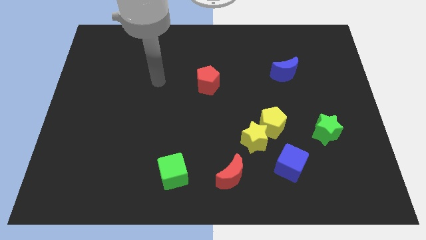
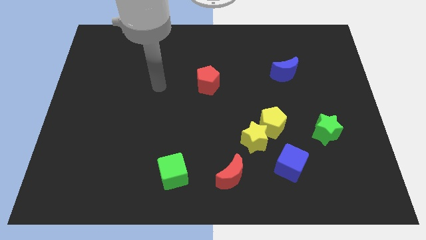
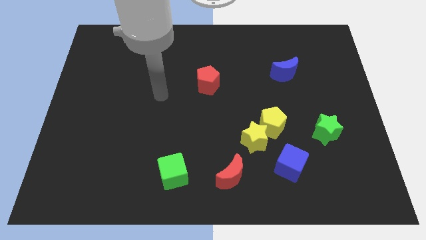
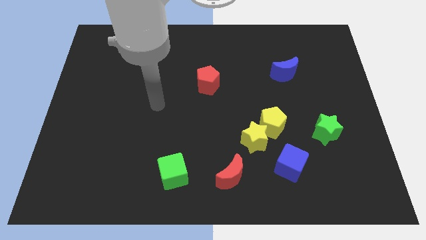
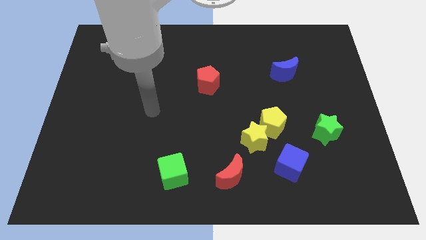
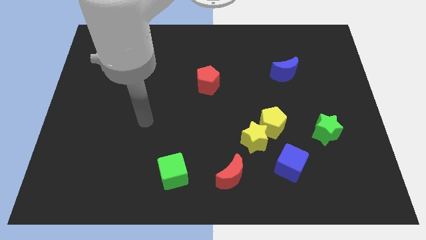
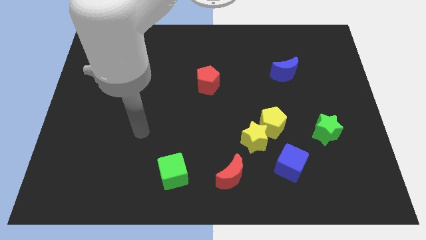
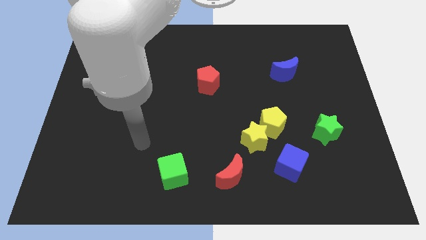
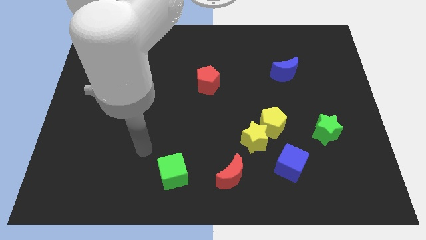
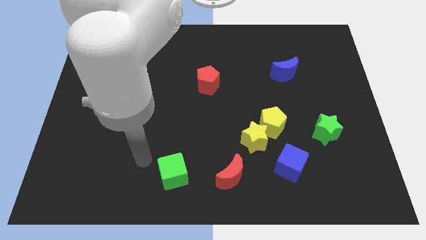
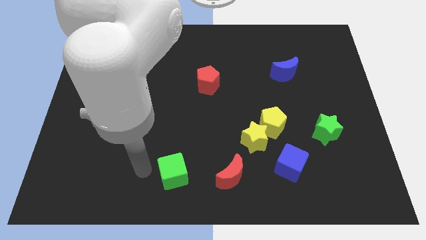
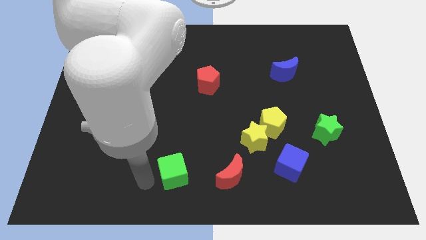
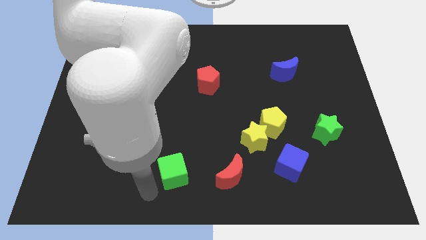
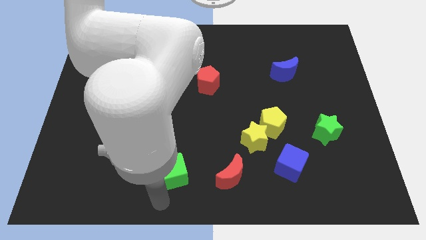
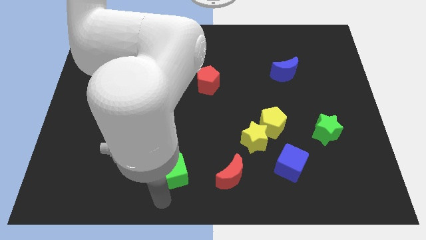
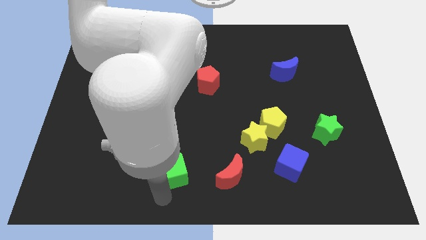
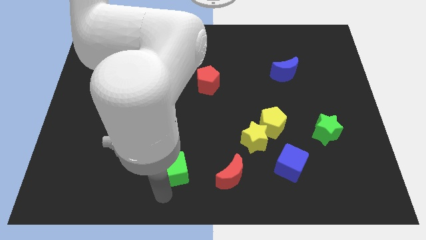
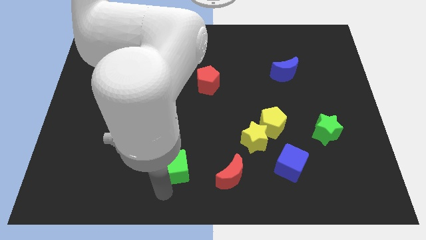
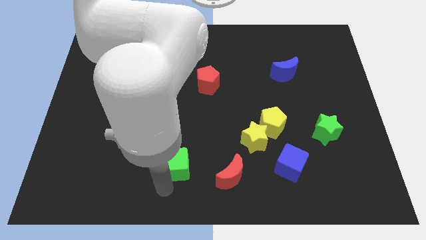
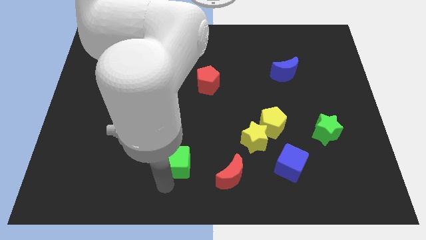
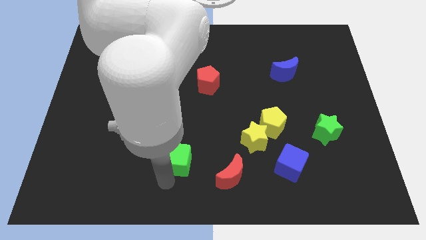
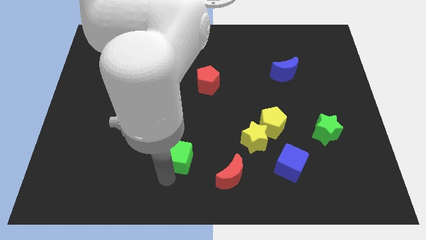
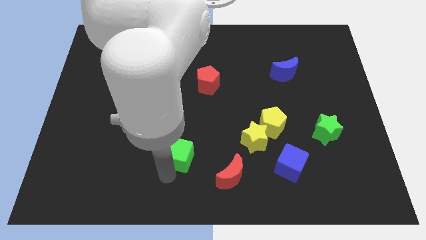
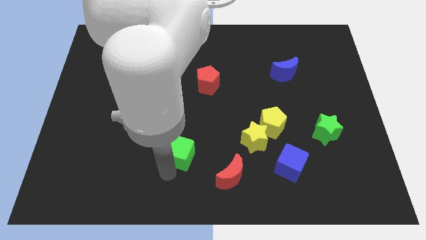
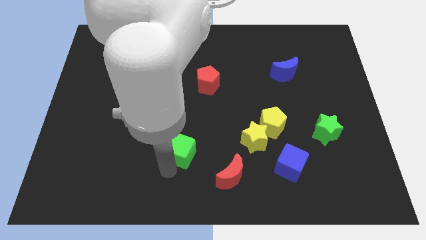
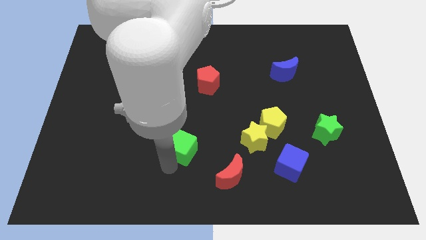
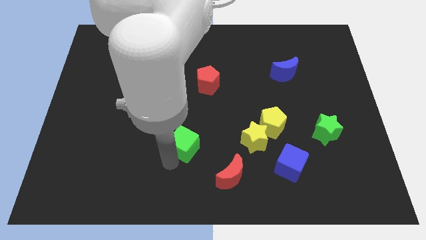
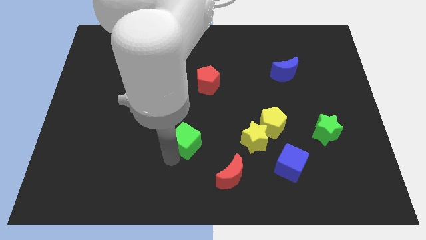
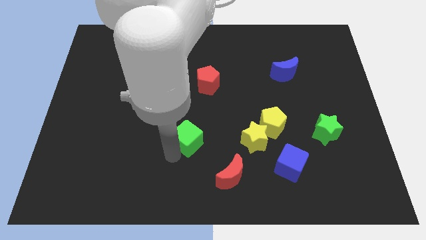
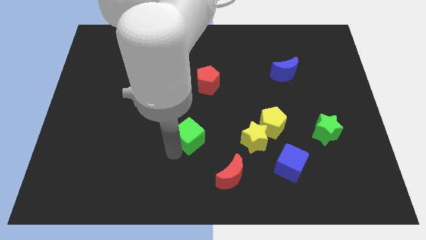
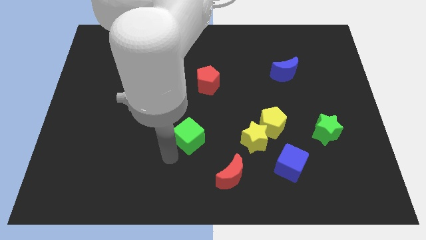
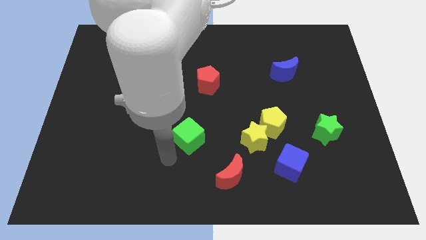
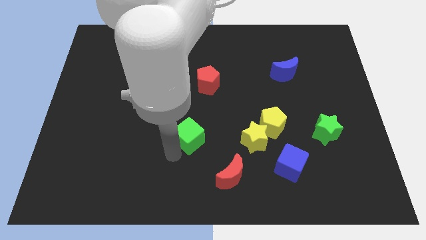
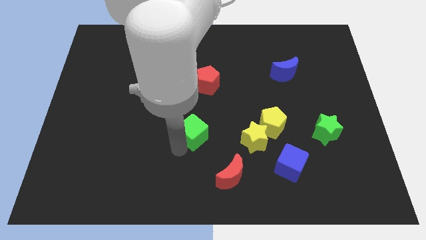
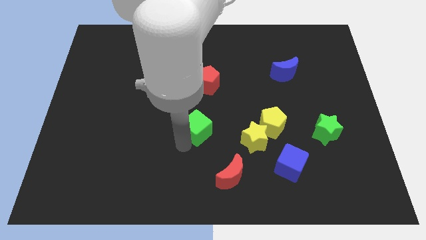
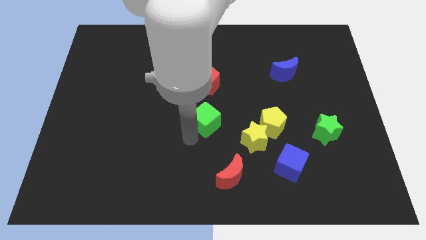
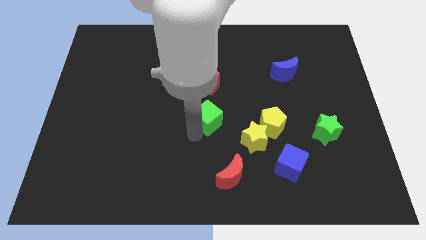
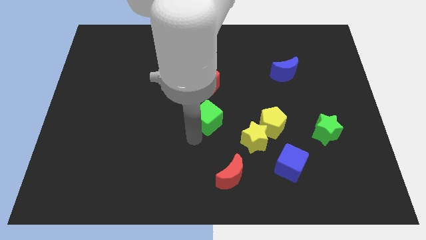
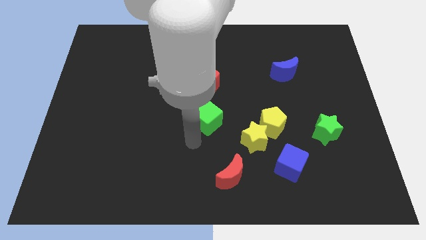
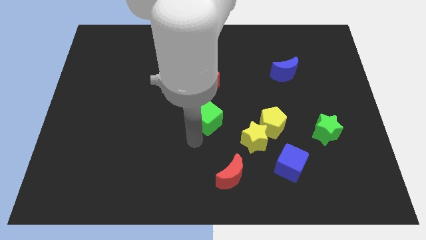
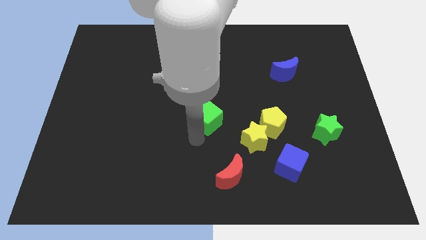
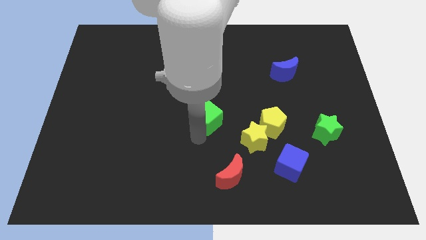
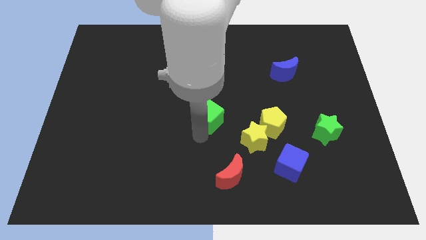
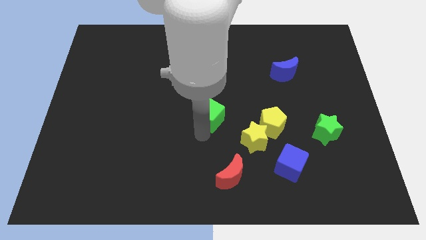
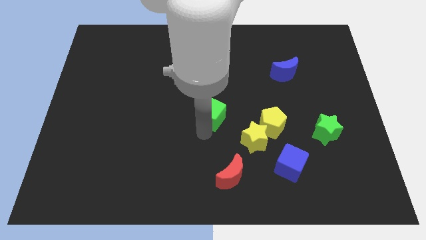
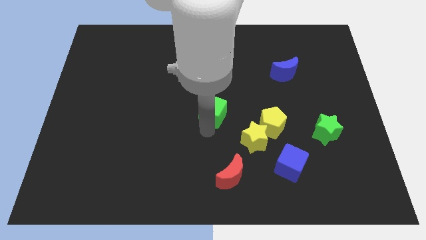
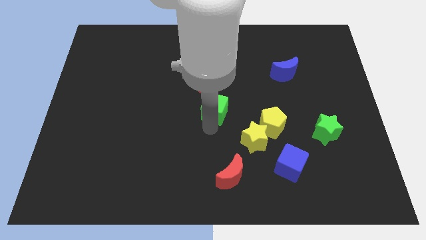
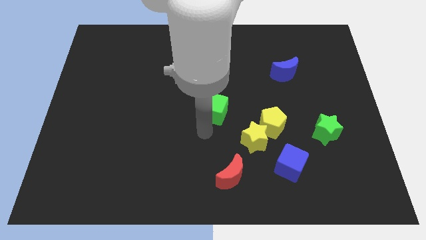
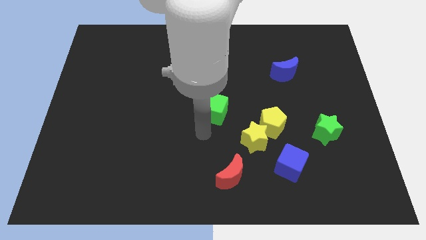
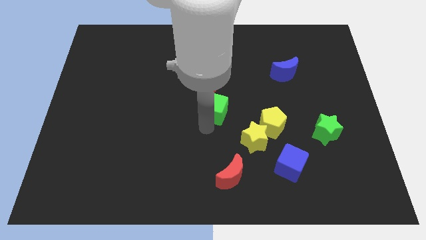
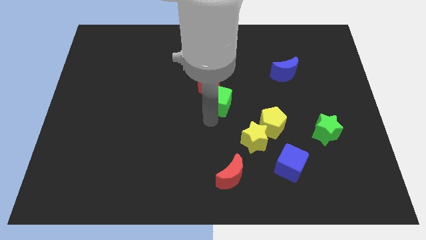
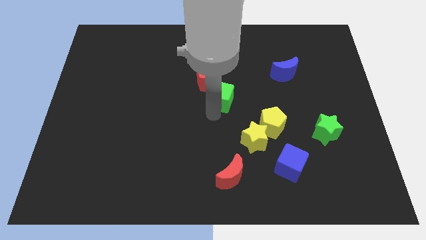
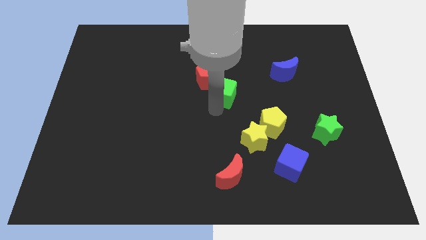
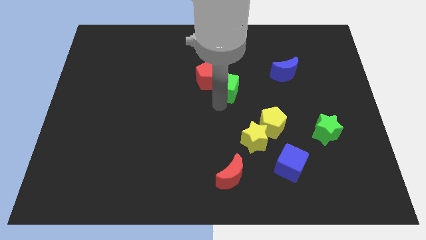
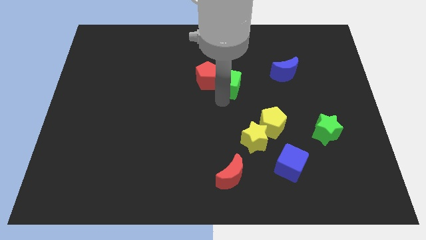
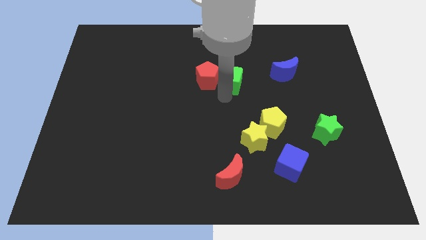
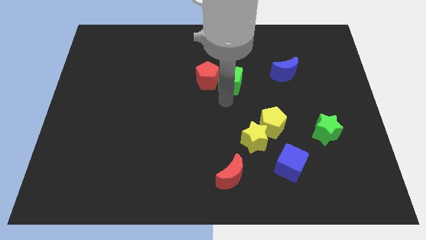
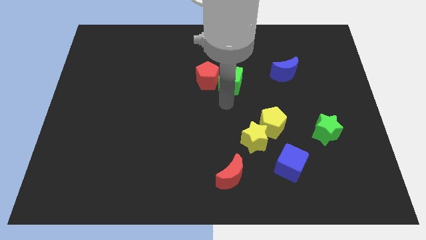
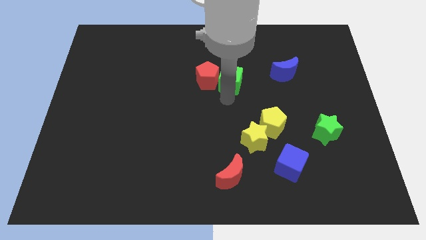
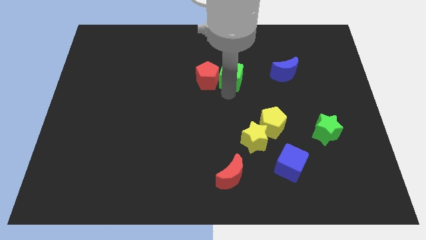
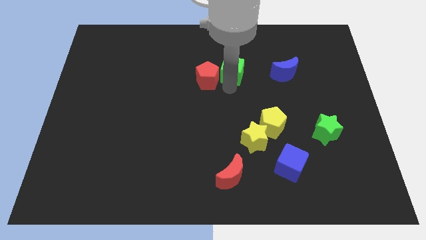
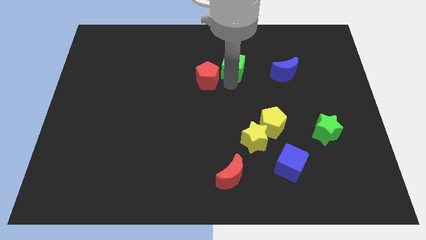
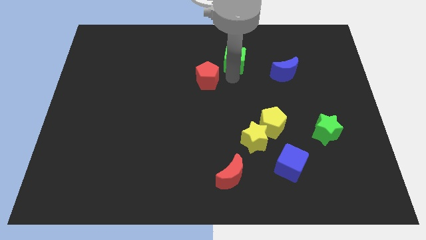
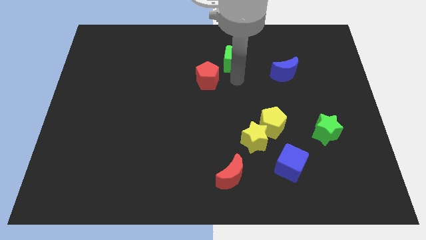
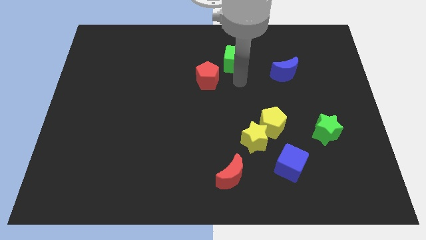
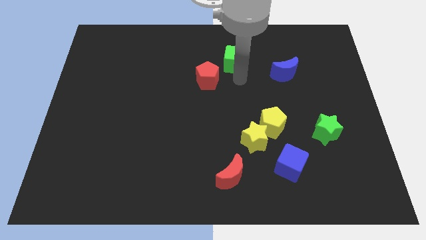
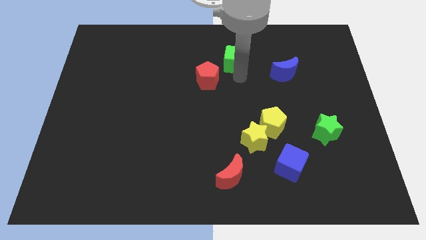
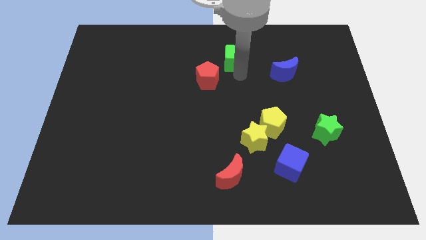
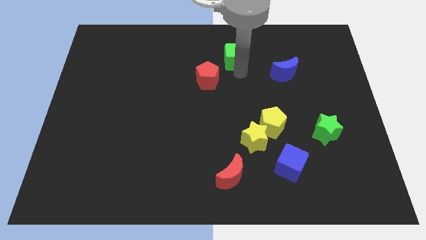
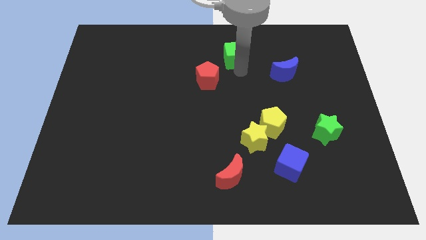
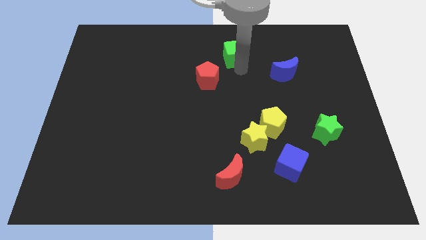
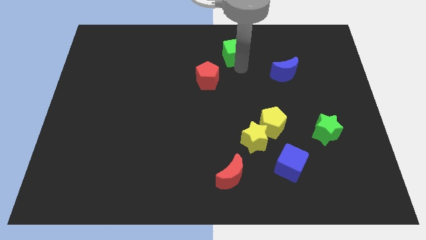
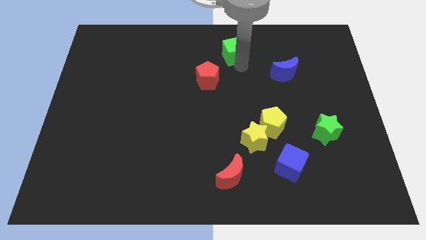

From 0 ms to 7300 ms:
slide the green cube to the top side
